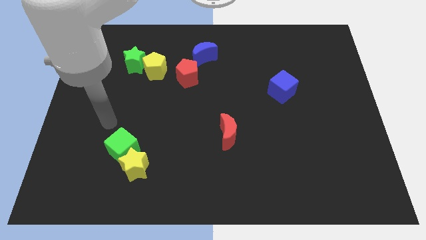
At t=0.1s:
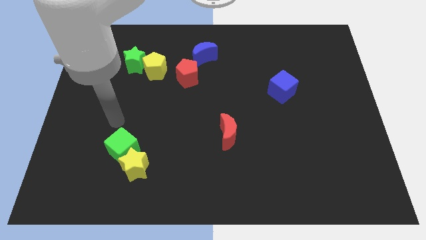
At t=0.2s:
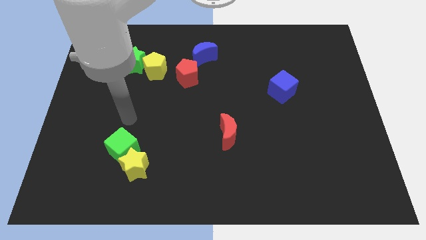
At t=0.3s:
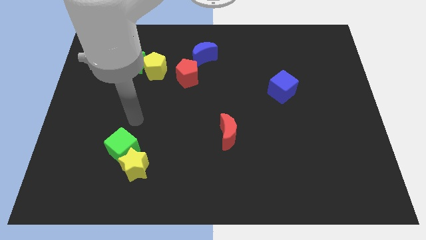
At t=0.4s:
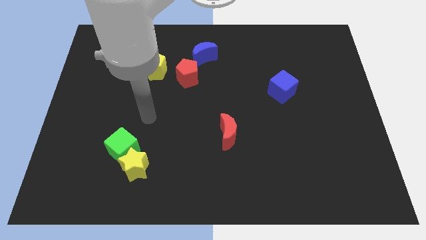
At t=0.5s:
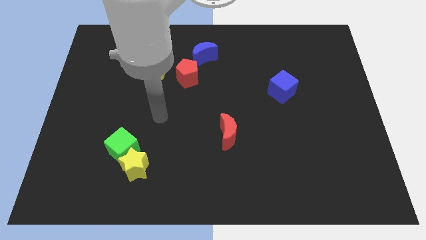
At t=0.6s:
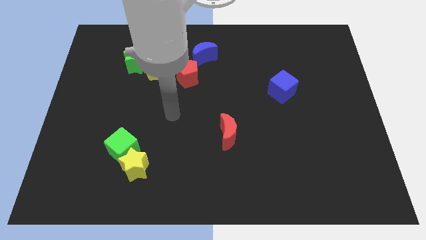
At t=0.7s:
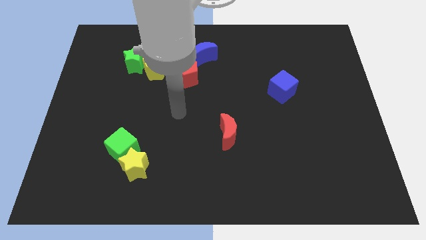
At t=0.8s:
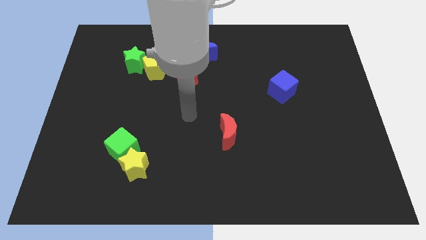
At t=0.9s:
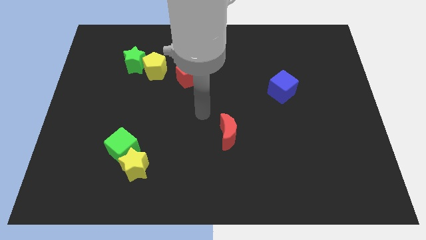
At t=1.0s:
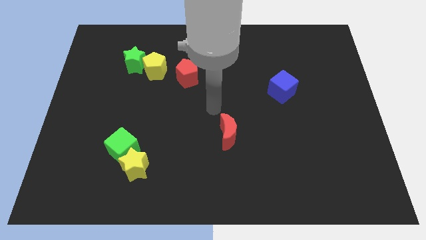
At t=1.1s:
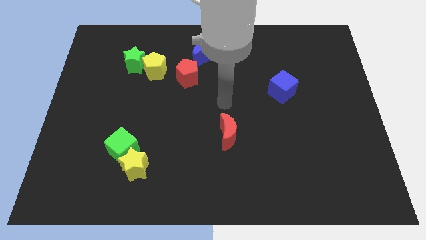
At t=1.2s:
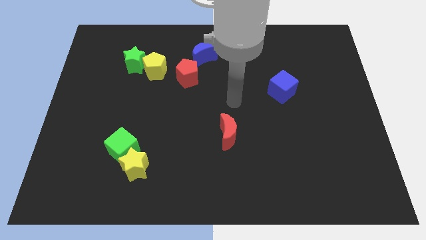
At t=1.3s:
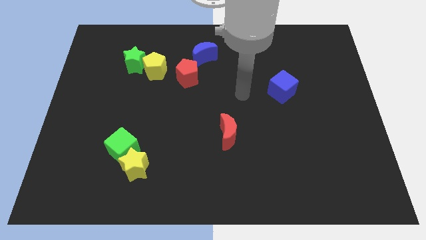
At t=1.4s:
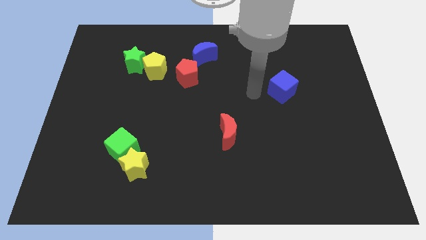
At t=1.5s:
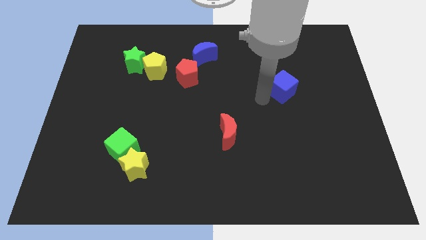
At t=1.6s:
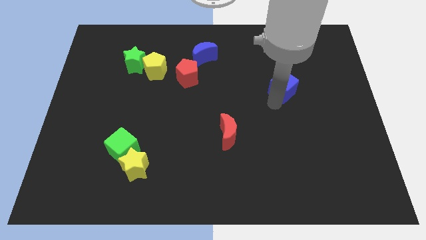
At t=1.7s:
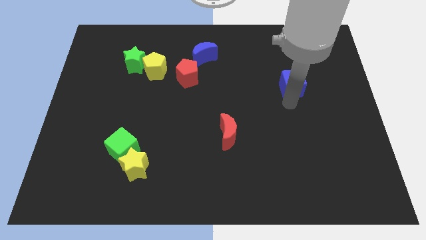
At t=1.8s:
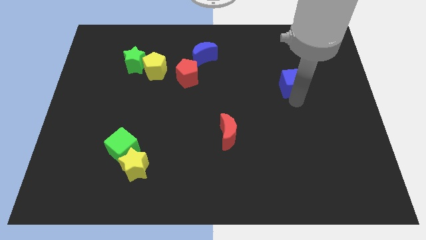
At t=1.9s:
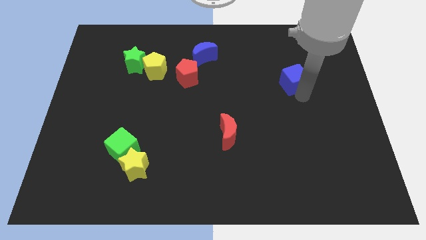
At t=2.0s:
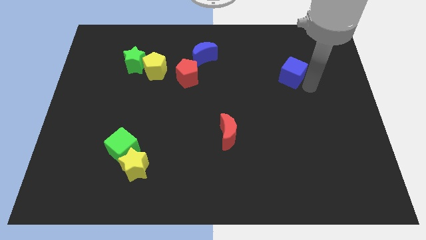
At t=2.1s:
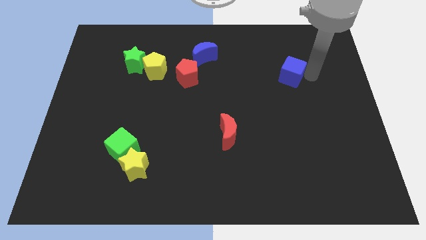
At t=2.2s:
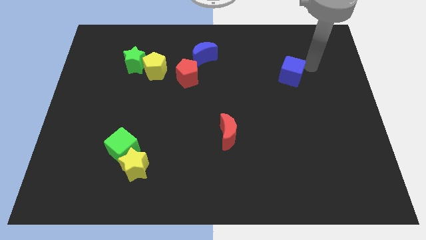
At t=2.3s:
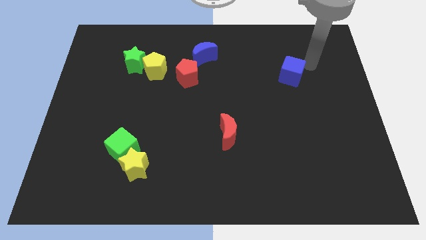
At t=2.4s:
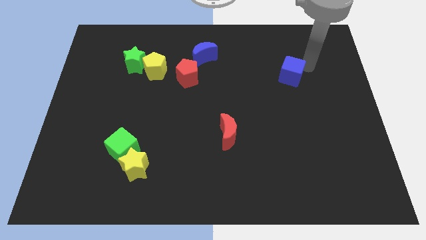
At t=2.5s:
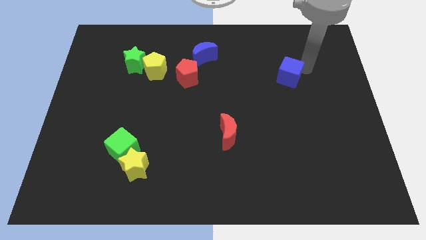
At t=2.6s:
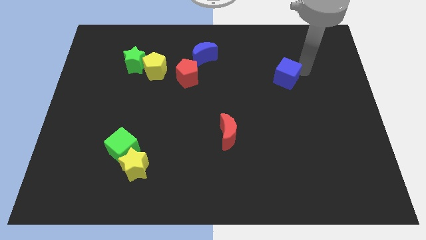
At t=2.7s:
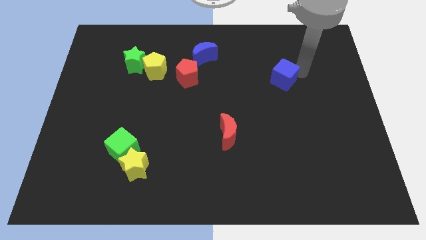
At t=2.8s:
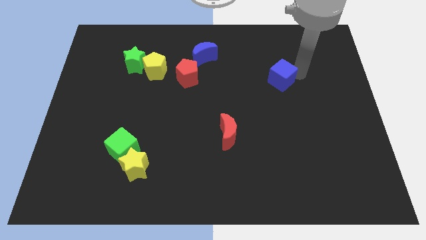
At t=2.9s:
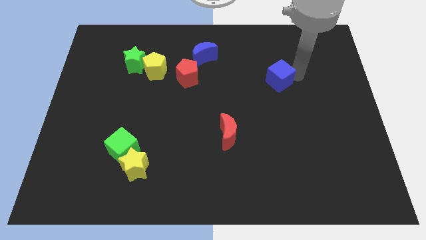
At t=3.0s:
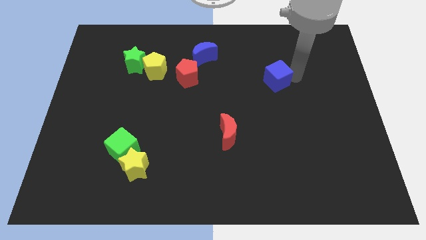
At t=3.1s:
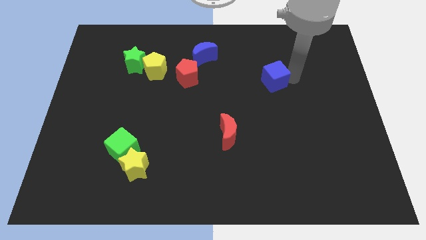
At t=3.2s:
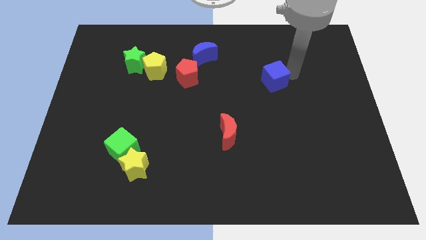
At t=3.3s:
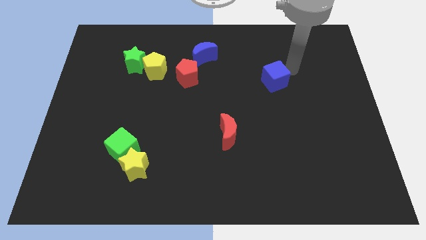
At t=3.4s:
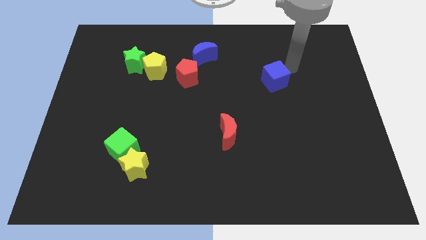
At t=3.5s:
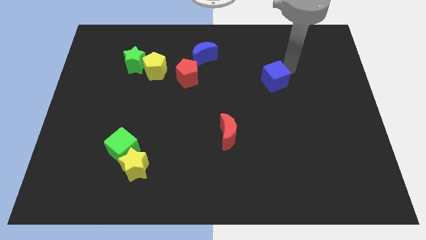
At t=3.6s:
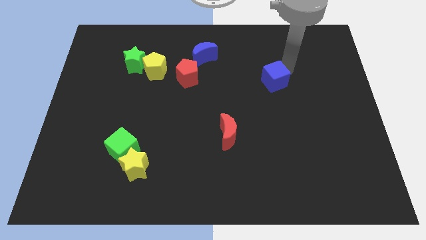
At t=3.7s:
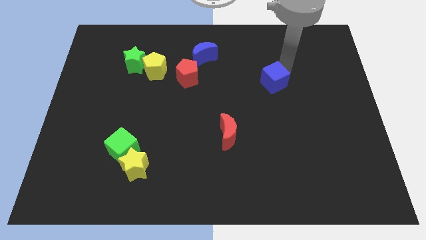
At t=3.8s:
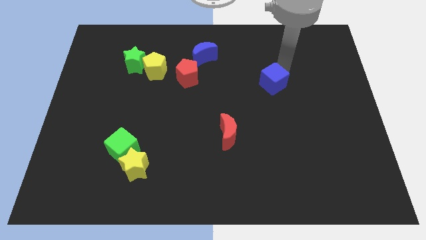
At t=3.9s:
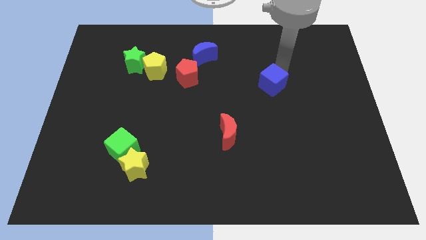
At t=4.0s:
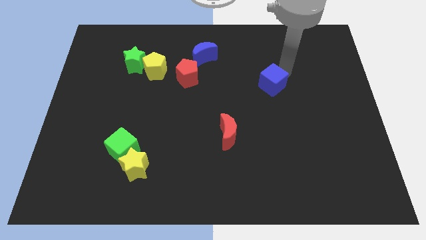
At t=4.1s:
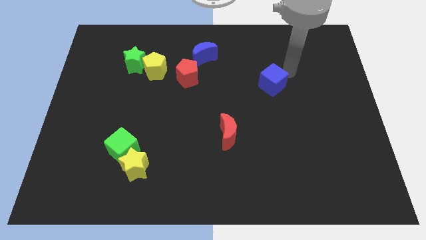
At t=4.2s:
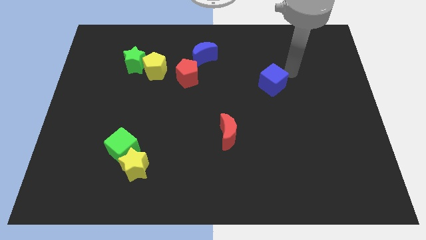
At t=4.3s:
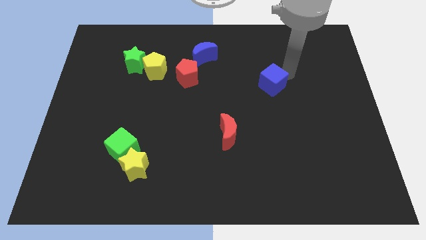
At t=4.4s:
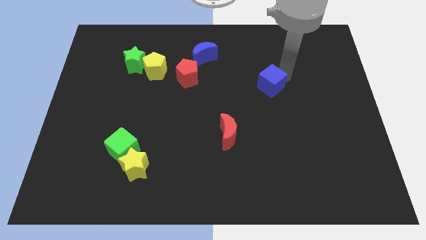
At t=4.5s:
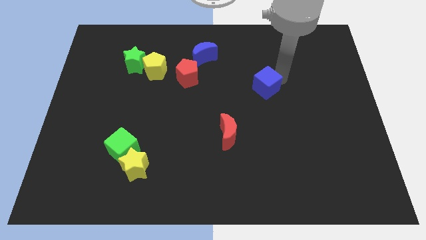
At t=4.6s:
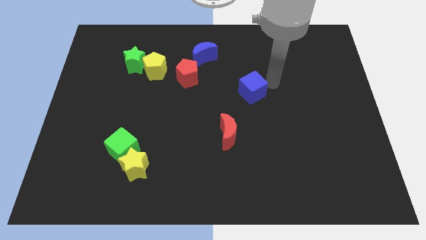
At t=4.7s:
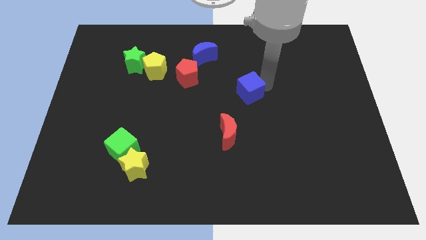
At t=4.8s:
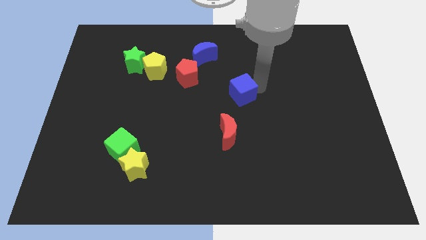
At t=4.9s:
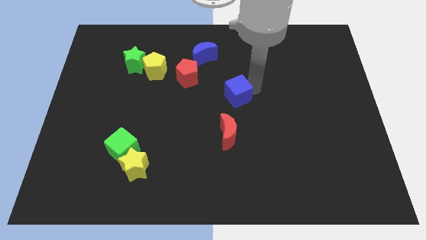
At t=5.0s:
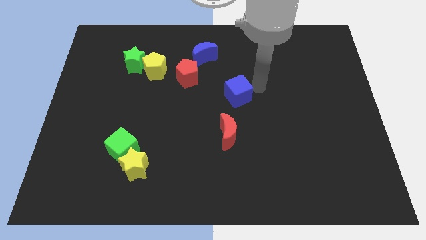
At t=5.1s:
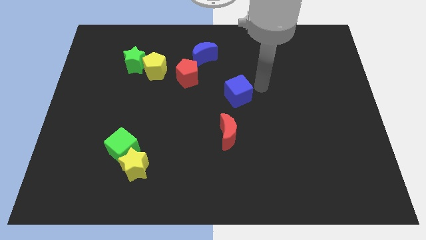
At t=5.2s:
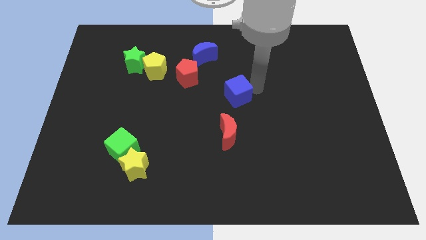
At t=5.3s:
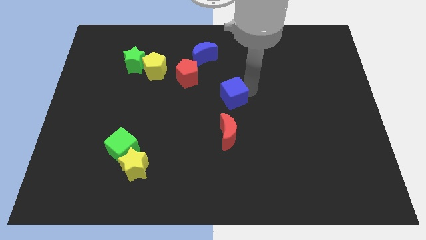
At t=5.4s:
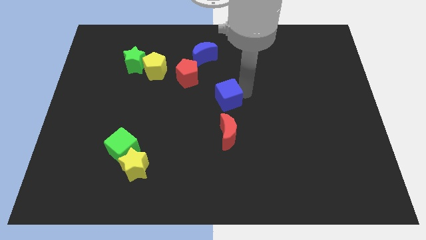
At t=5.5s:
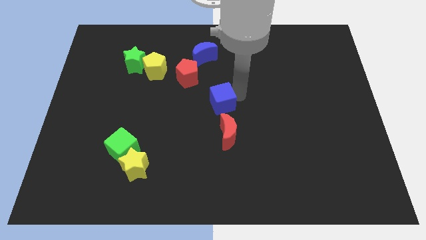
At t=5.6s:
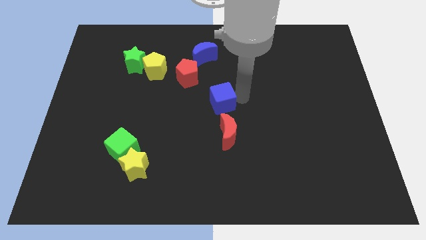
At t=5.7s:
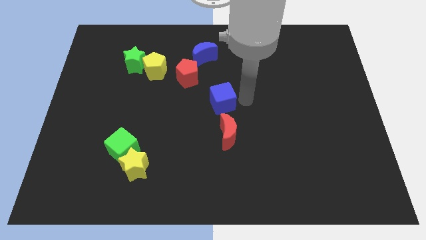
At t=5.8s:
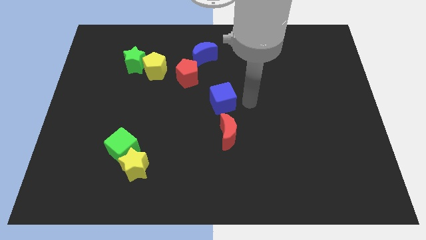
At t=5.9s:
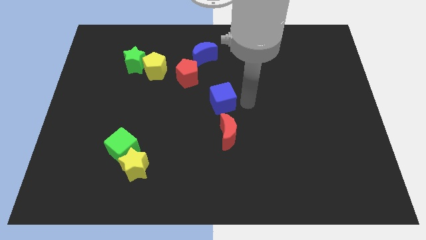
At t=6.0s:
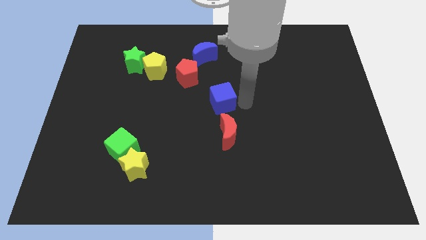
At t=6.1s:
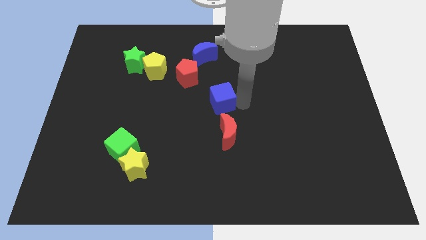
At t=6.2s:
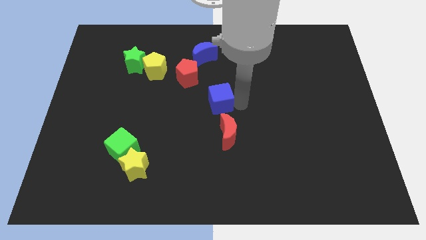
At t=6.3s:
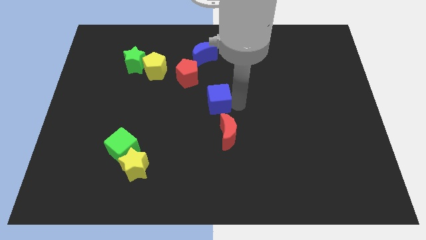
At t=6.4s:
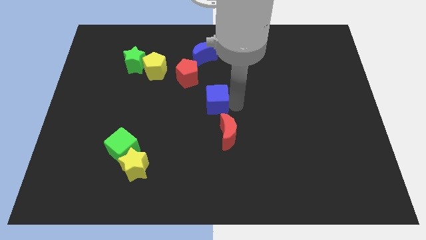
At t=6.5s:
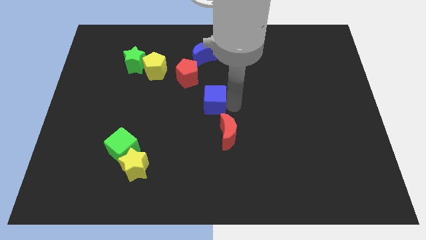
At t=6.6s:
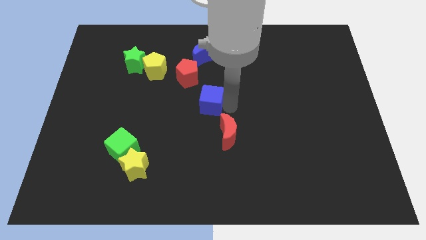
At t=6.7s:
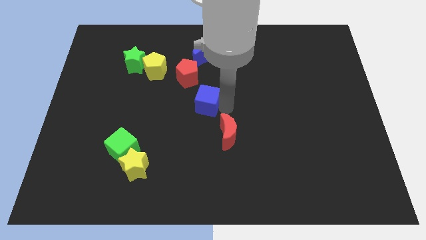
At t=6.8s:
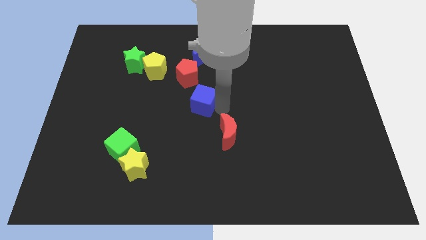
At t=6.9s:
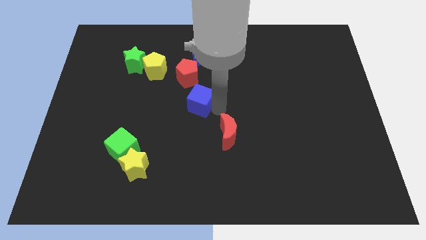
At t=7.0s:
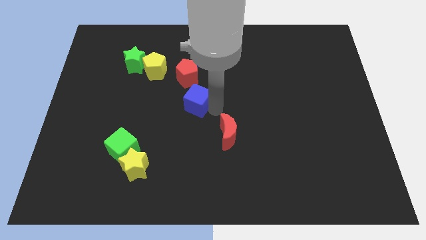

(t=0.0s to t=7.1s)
push the blue cube left

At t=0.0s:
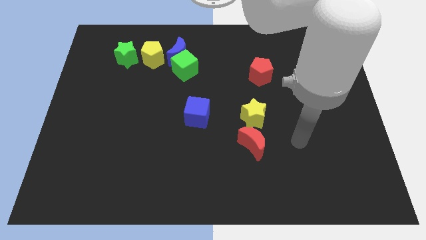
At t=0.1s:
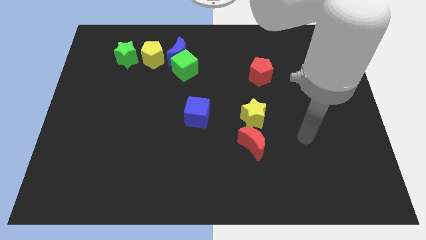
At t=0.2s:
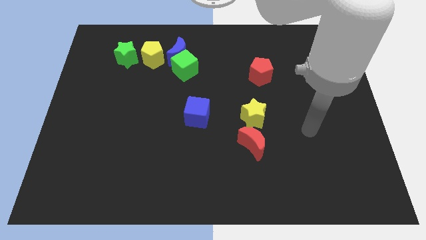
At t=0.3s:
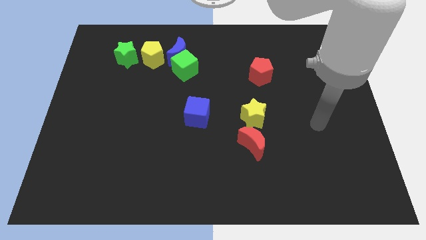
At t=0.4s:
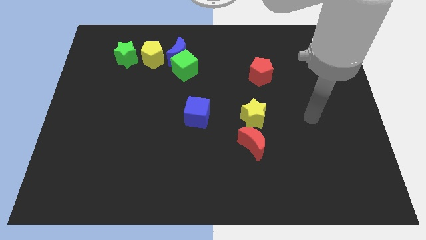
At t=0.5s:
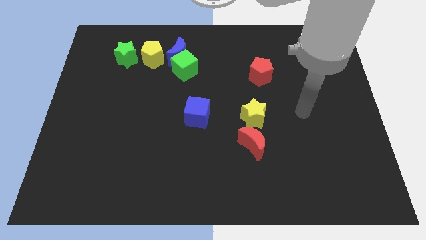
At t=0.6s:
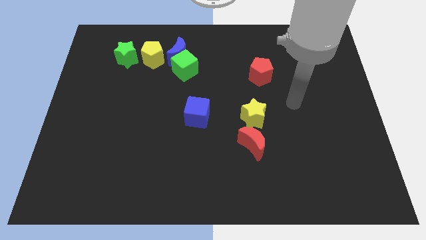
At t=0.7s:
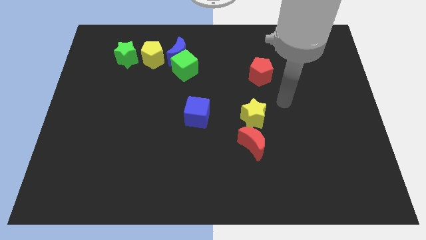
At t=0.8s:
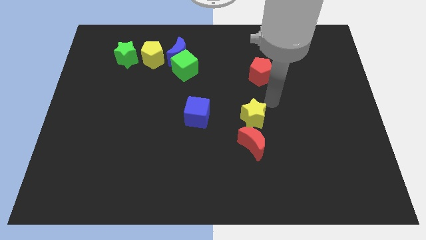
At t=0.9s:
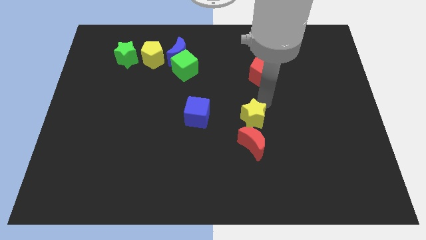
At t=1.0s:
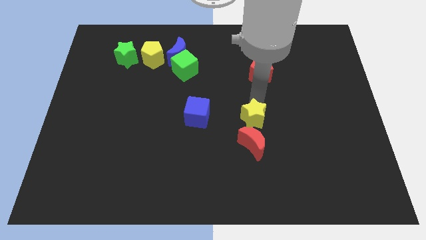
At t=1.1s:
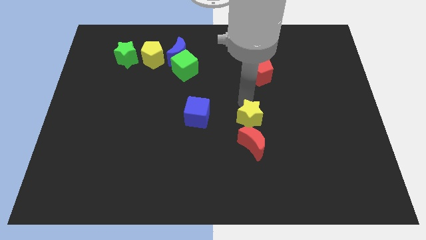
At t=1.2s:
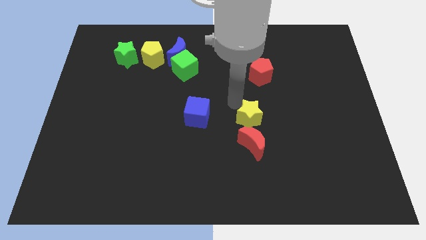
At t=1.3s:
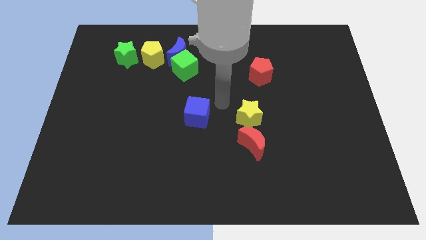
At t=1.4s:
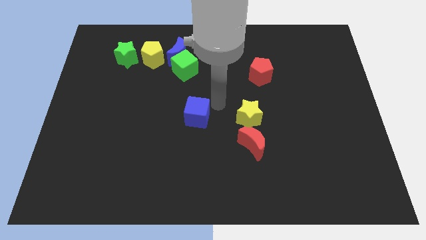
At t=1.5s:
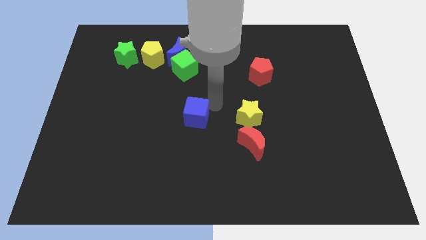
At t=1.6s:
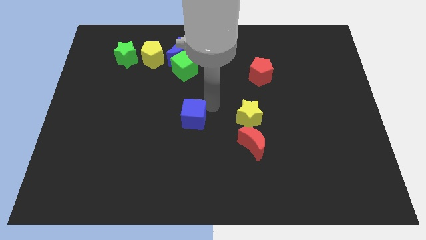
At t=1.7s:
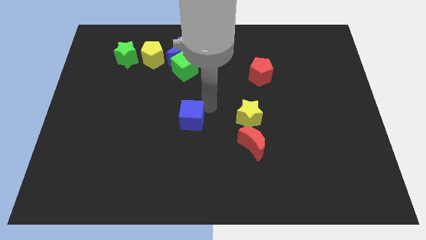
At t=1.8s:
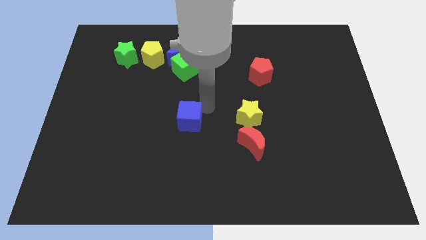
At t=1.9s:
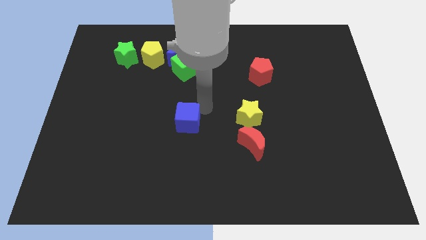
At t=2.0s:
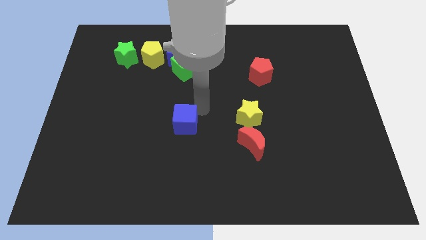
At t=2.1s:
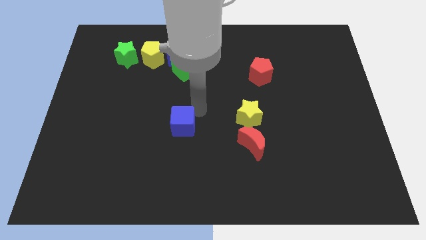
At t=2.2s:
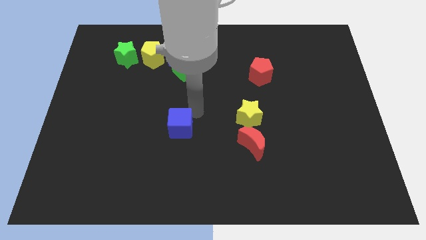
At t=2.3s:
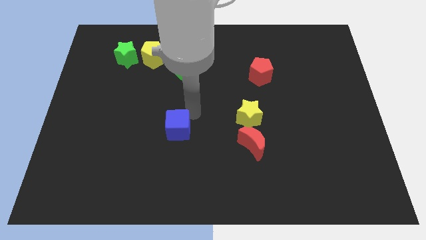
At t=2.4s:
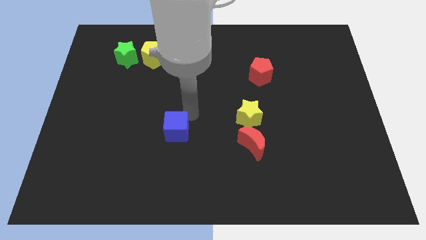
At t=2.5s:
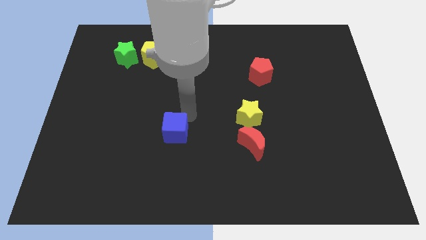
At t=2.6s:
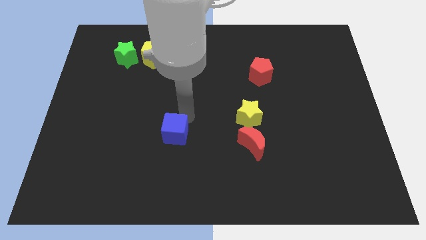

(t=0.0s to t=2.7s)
move the blue cube a little diagonally downwards and to the left
